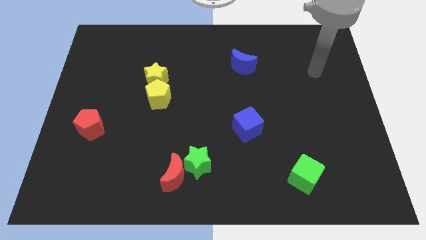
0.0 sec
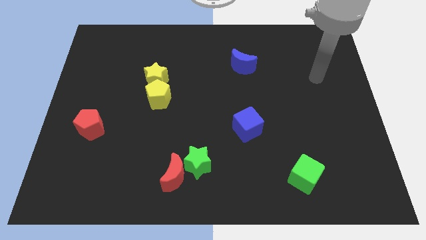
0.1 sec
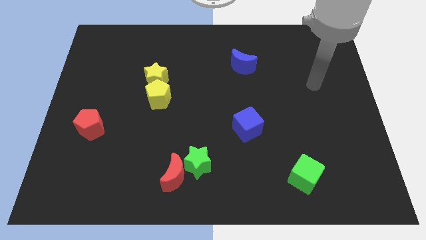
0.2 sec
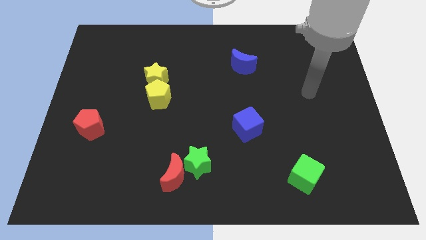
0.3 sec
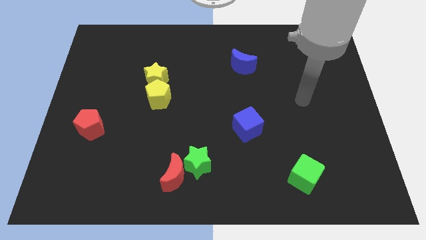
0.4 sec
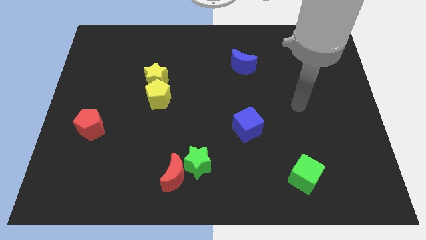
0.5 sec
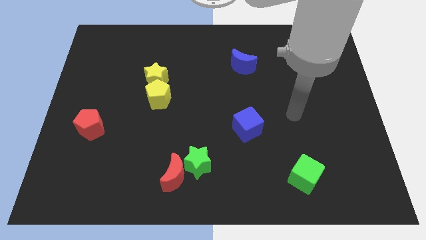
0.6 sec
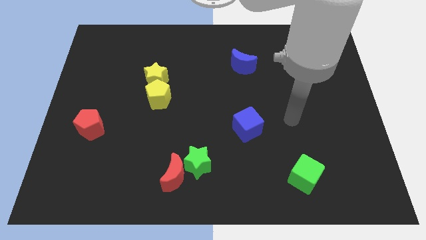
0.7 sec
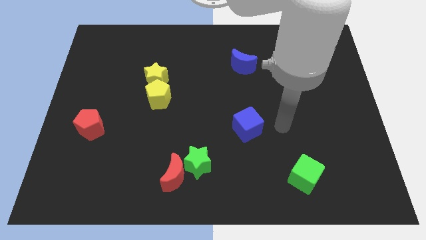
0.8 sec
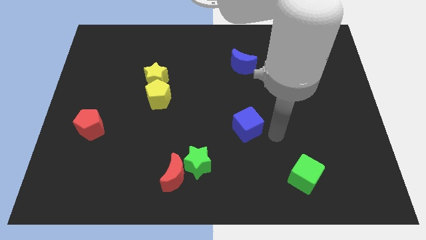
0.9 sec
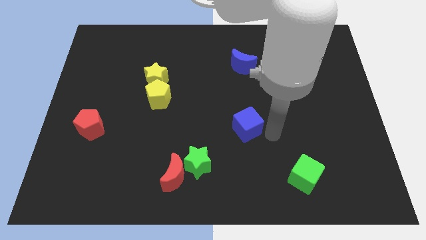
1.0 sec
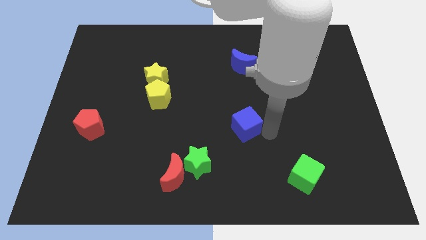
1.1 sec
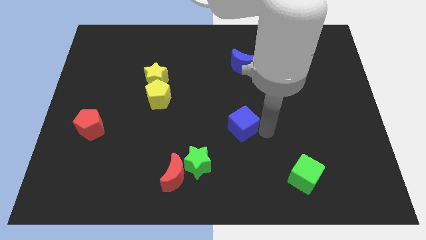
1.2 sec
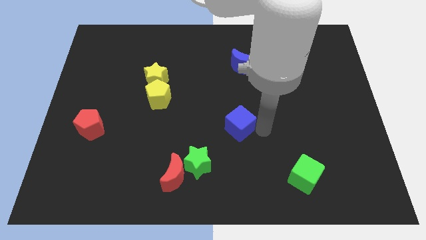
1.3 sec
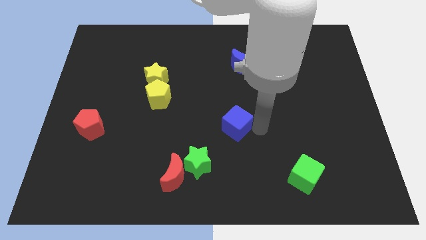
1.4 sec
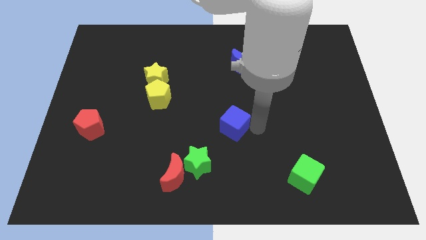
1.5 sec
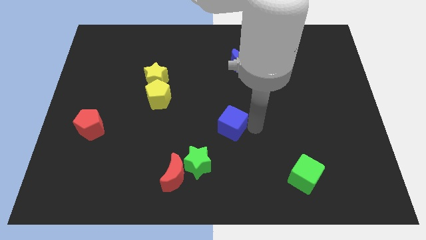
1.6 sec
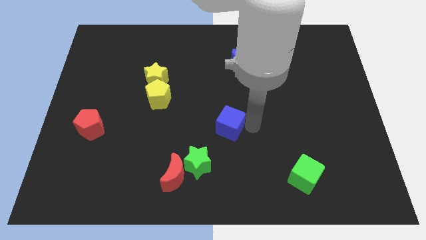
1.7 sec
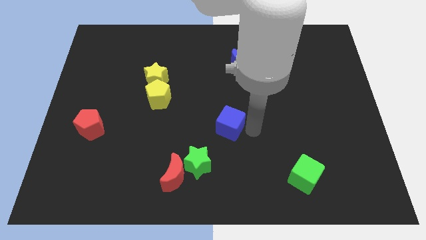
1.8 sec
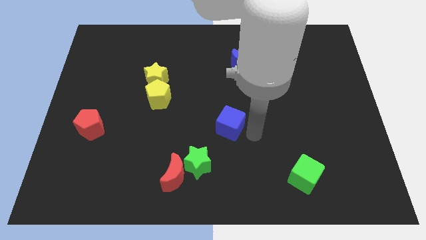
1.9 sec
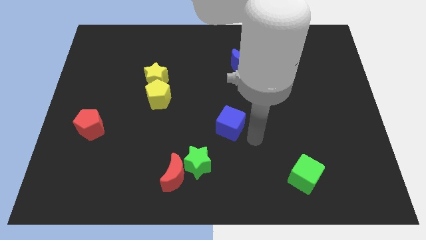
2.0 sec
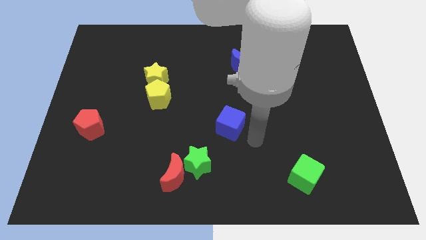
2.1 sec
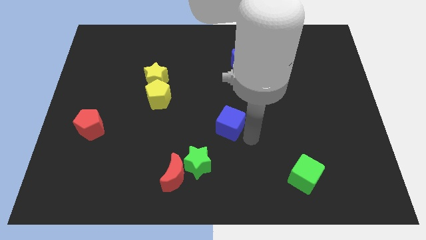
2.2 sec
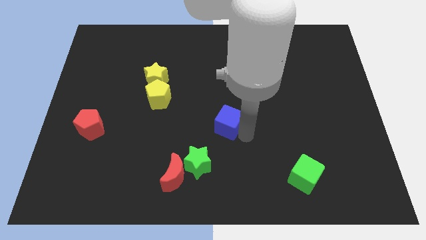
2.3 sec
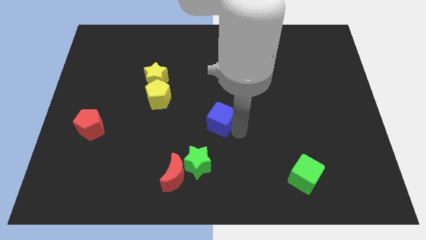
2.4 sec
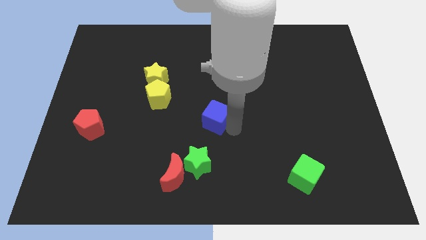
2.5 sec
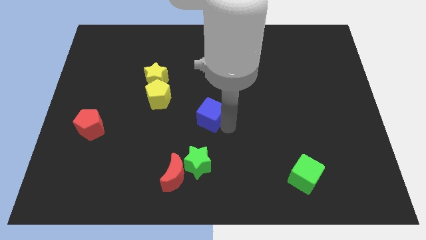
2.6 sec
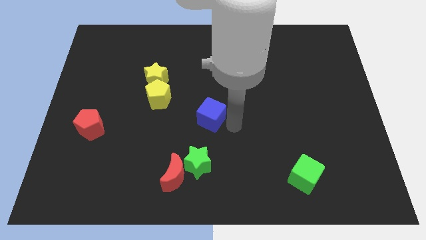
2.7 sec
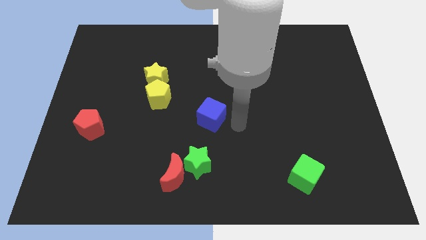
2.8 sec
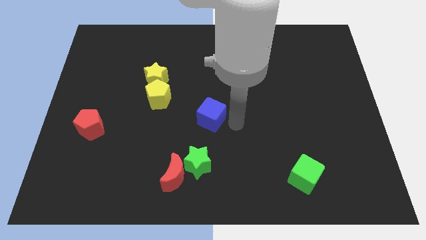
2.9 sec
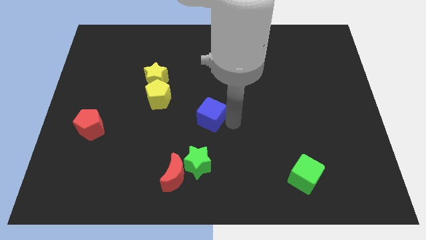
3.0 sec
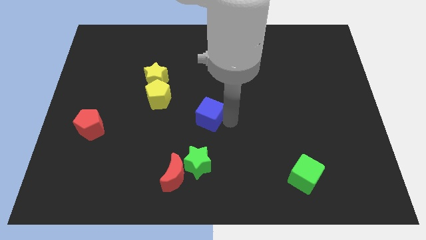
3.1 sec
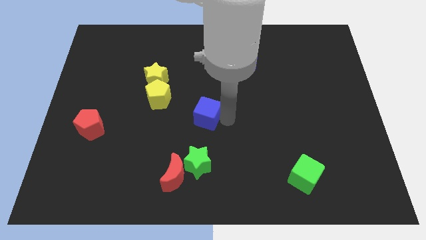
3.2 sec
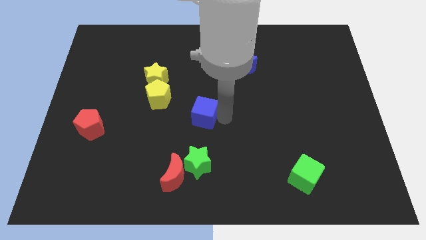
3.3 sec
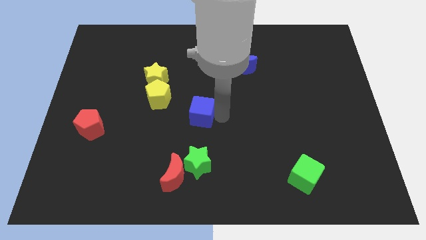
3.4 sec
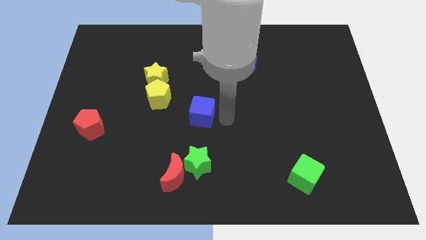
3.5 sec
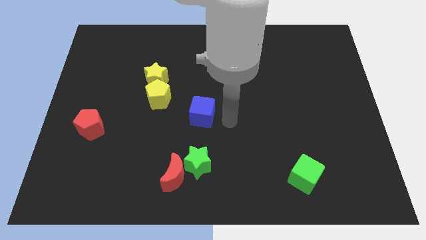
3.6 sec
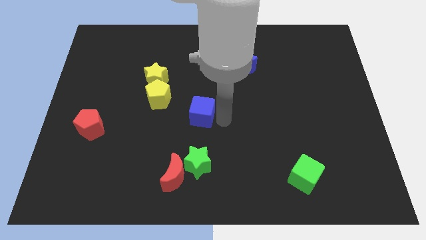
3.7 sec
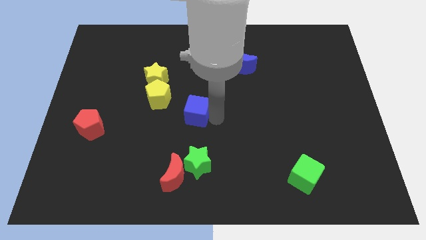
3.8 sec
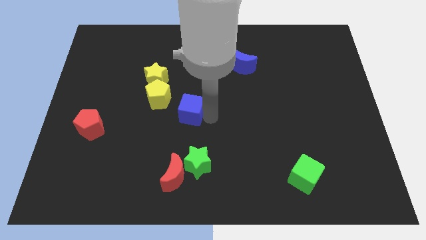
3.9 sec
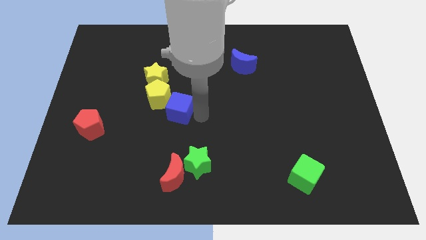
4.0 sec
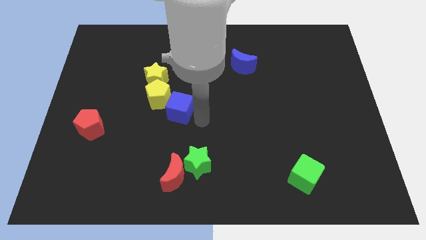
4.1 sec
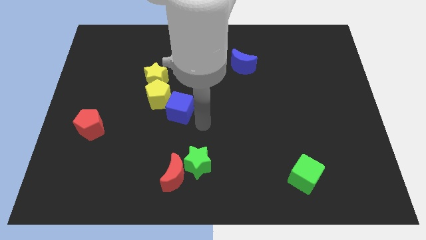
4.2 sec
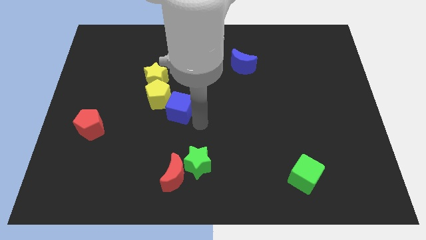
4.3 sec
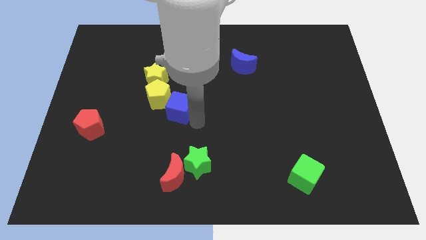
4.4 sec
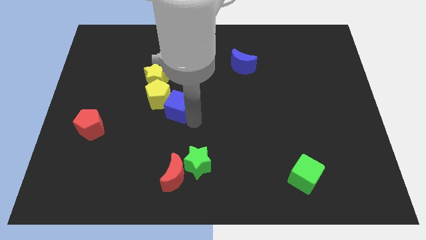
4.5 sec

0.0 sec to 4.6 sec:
push the blue cube next to the yellow pentagon

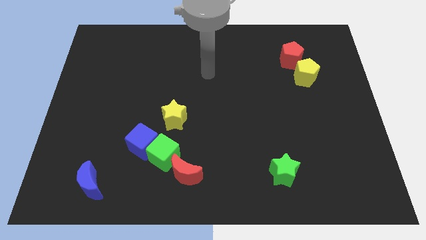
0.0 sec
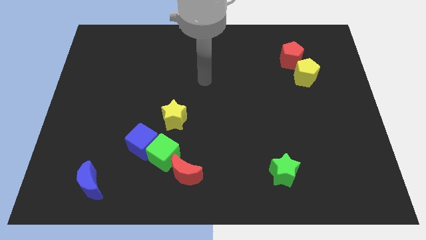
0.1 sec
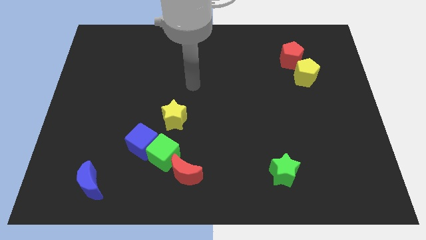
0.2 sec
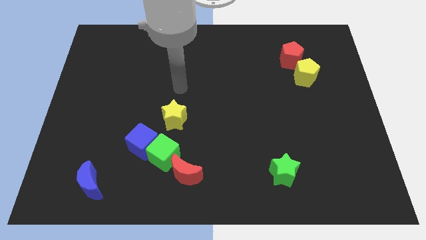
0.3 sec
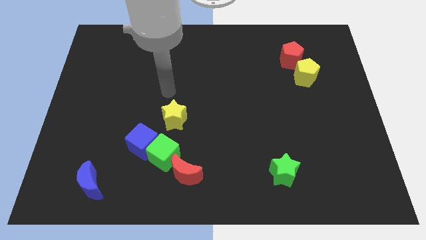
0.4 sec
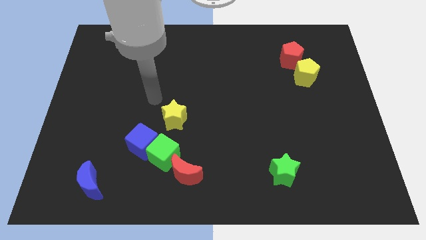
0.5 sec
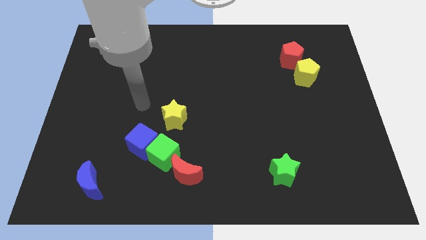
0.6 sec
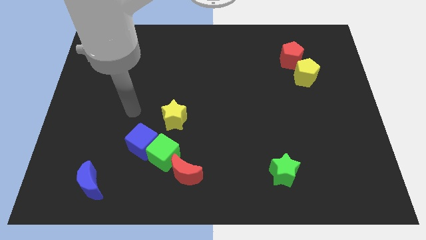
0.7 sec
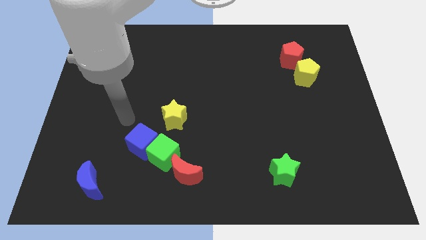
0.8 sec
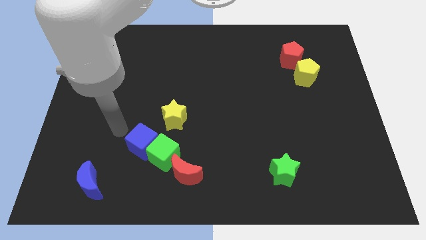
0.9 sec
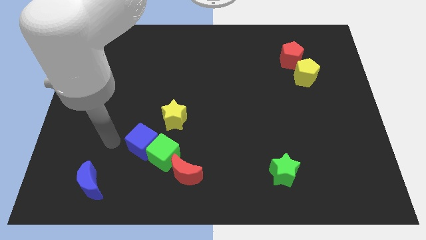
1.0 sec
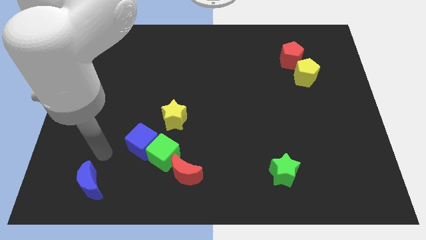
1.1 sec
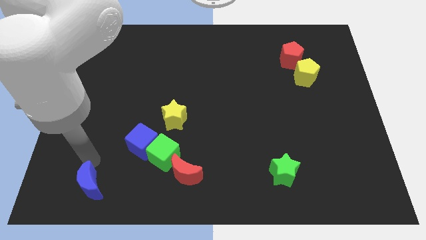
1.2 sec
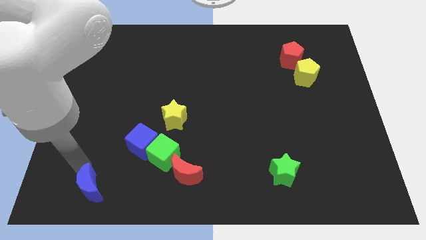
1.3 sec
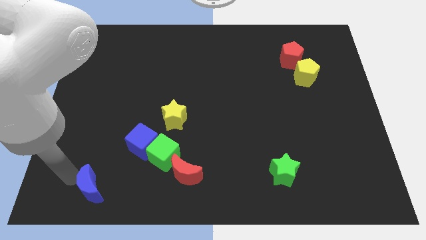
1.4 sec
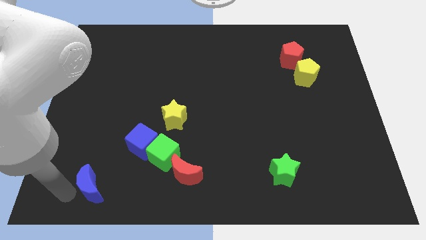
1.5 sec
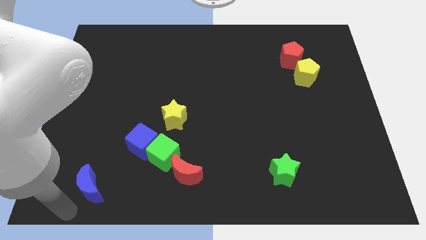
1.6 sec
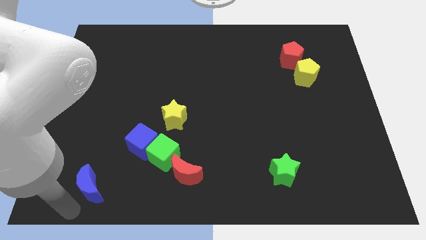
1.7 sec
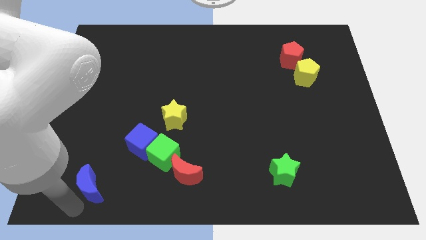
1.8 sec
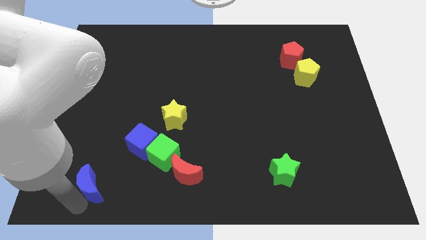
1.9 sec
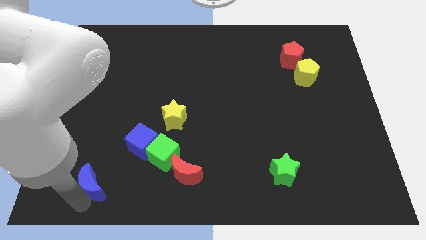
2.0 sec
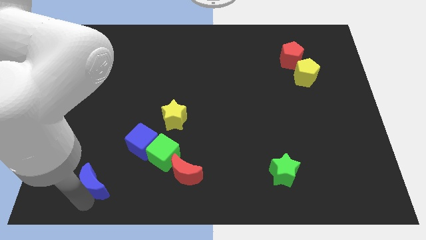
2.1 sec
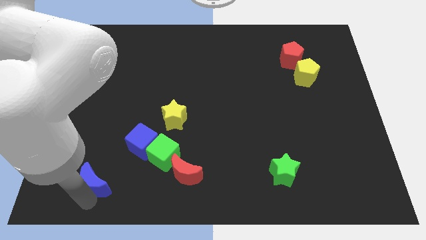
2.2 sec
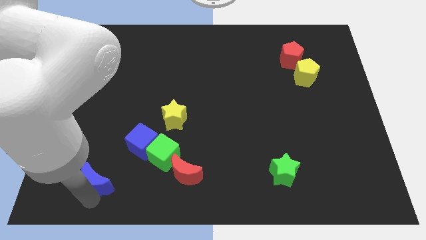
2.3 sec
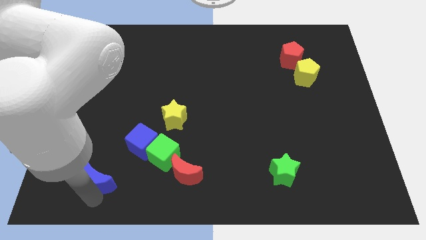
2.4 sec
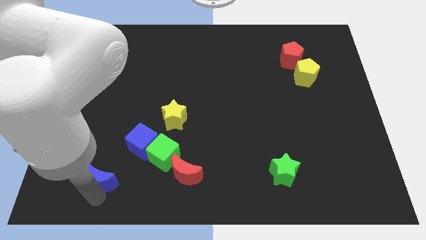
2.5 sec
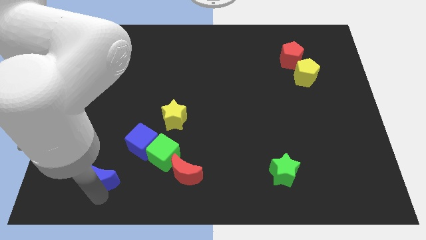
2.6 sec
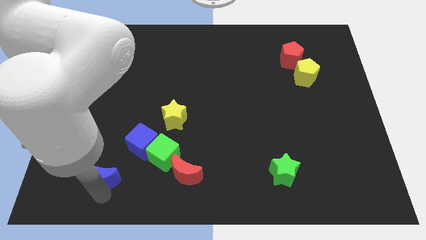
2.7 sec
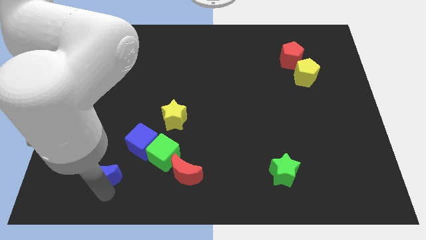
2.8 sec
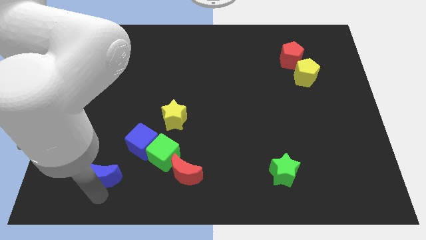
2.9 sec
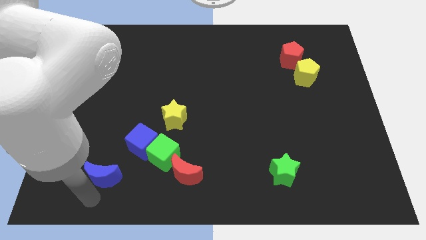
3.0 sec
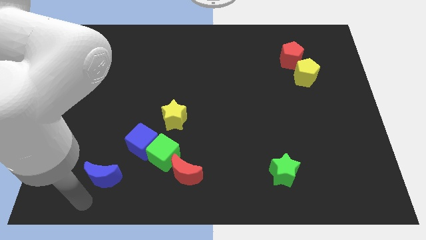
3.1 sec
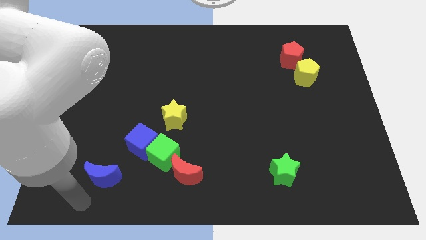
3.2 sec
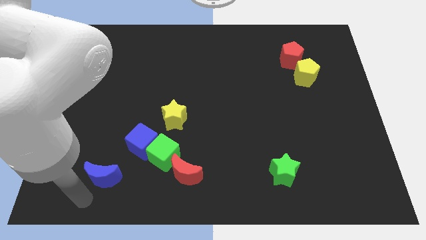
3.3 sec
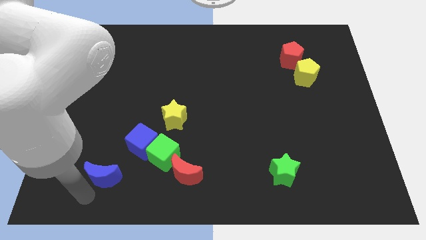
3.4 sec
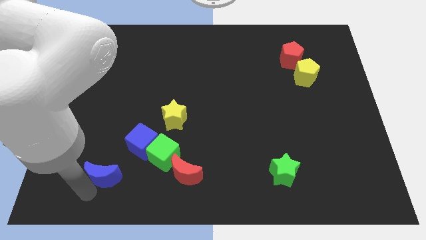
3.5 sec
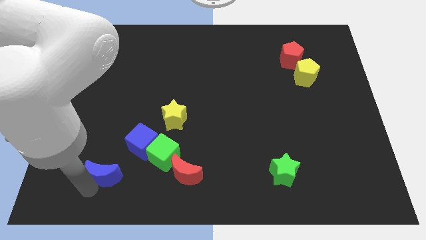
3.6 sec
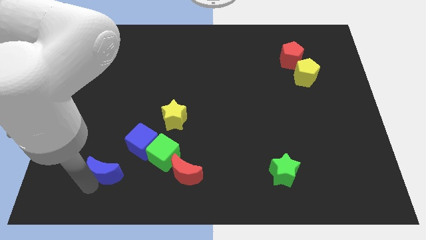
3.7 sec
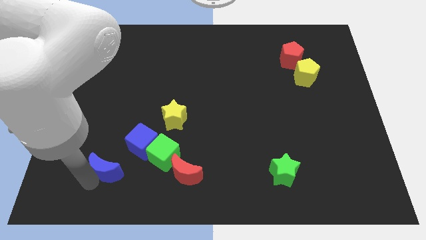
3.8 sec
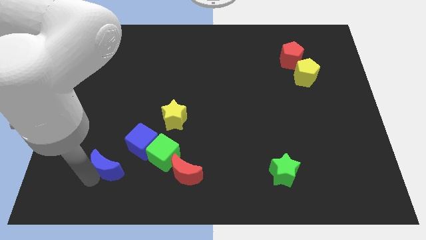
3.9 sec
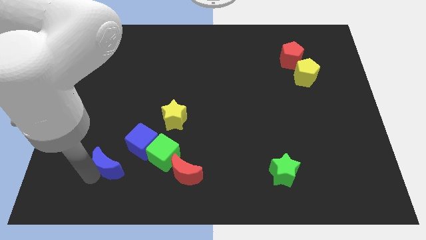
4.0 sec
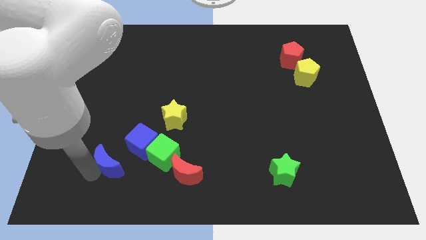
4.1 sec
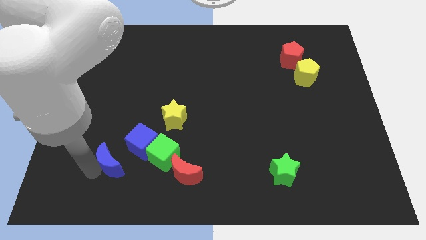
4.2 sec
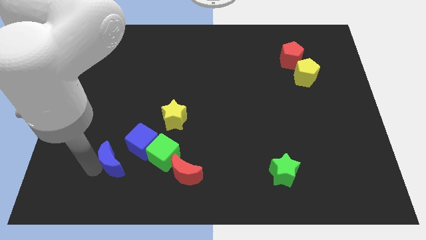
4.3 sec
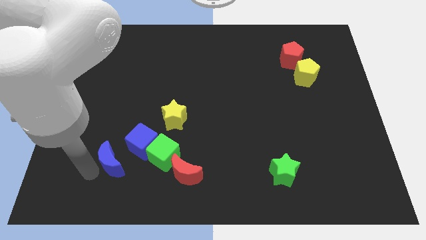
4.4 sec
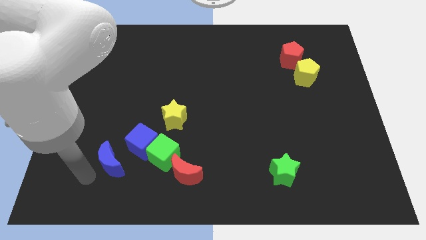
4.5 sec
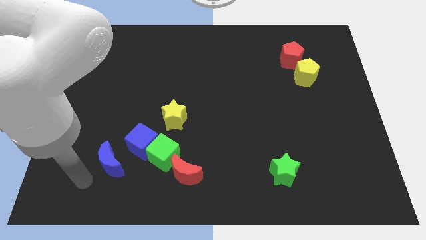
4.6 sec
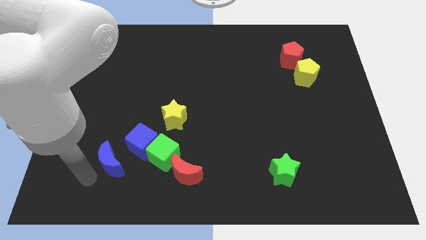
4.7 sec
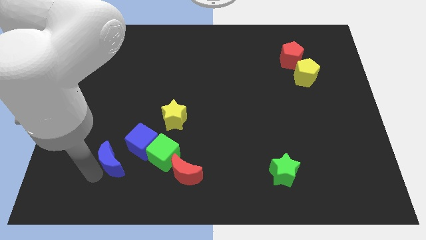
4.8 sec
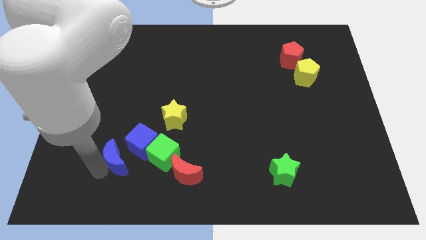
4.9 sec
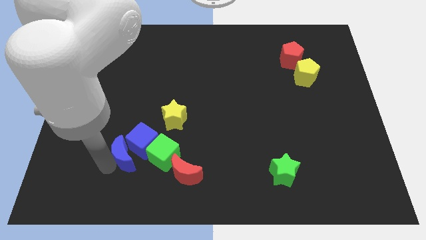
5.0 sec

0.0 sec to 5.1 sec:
move the blue moon towards the blue cube
